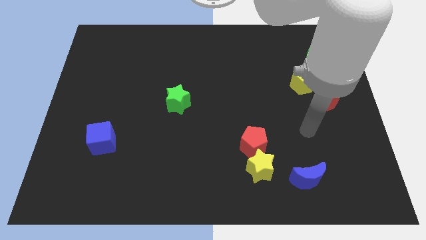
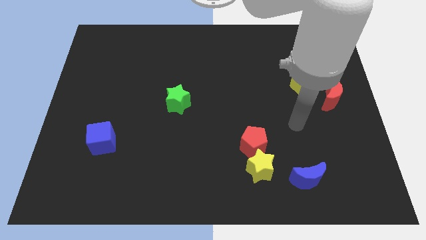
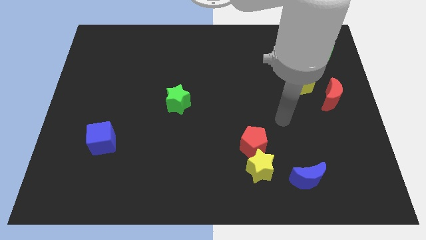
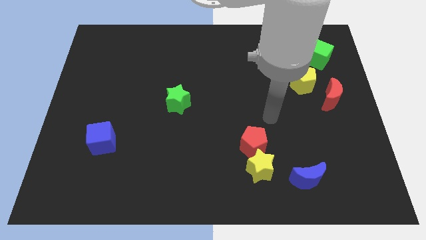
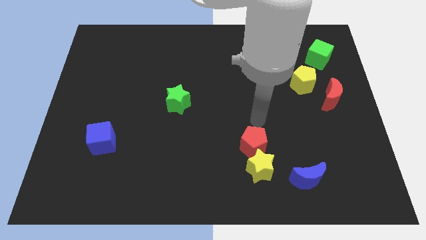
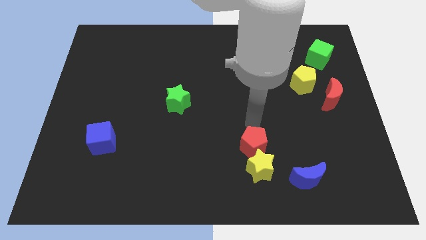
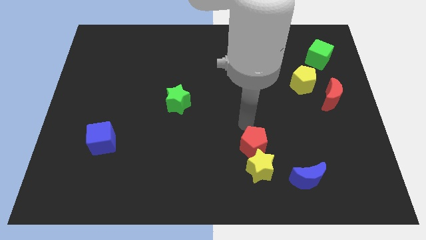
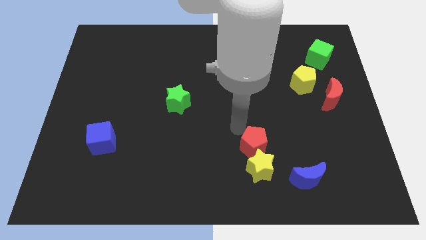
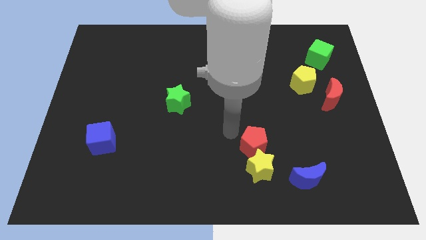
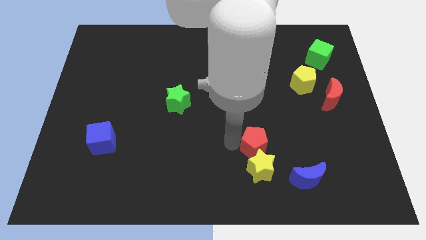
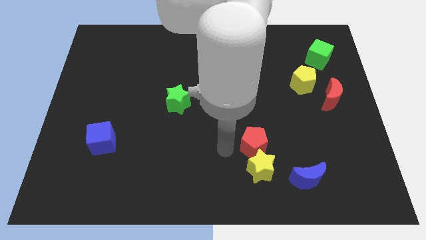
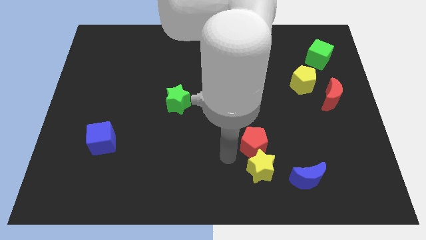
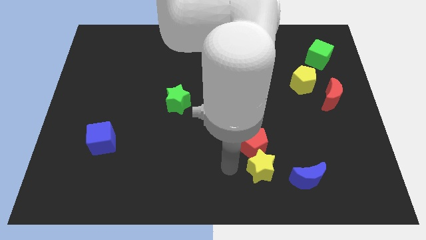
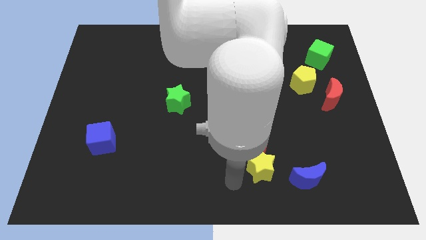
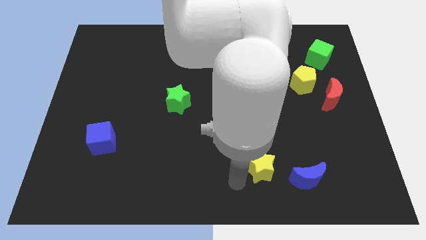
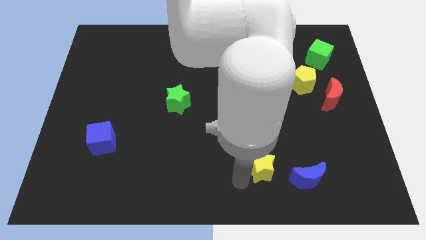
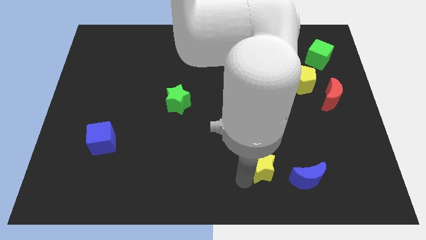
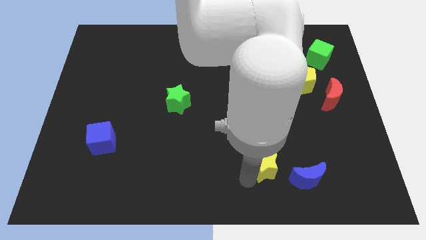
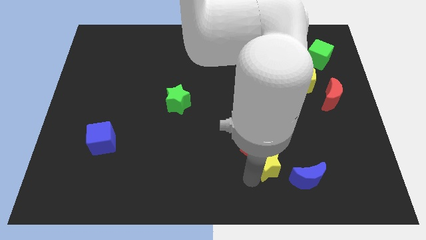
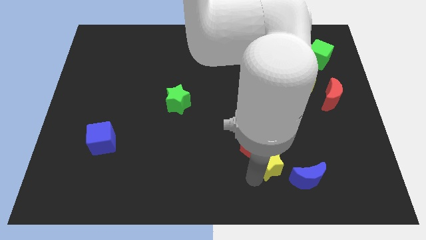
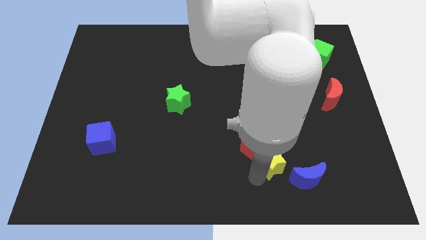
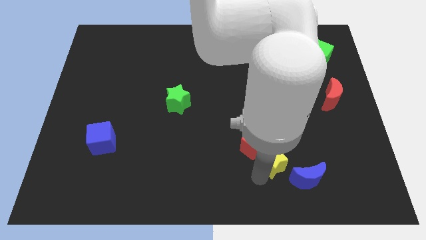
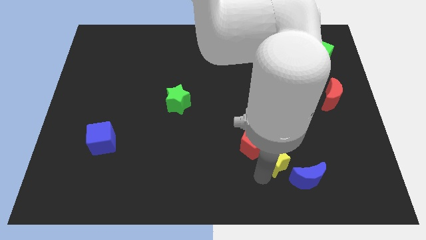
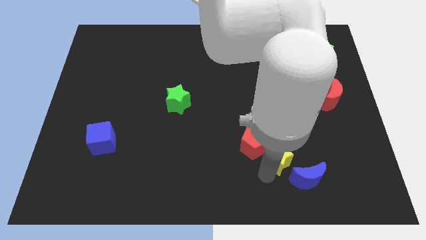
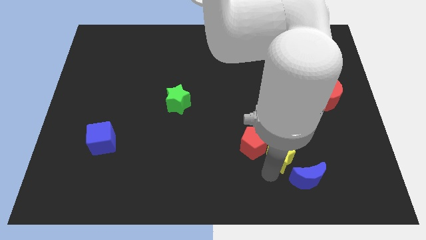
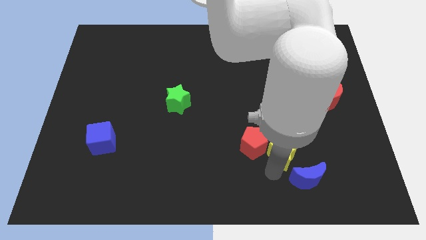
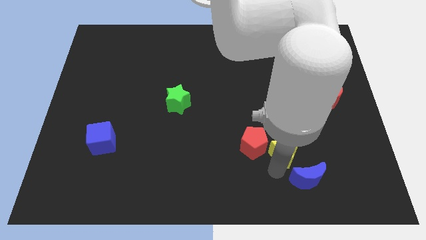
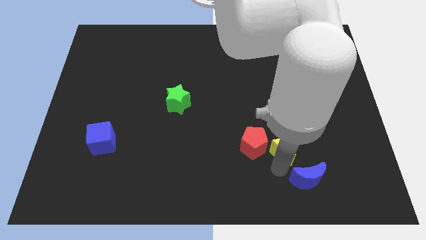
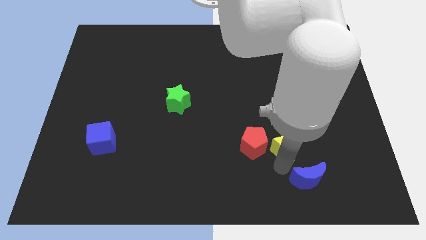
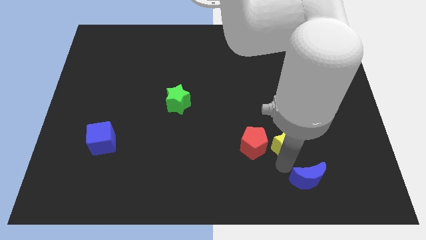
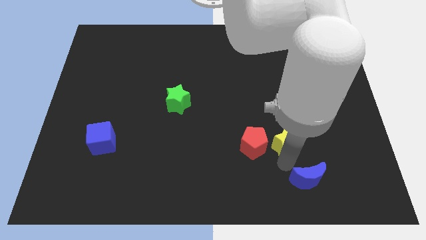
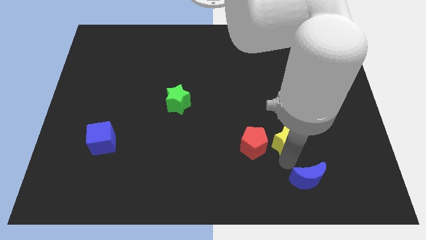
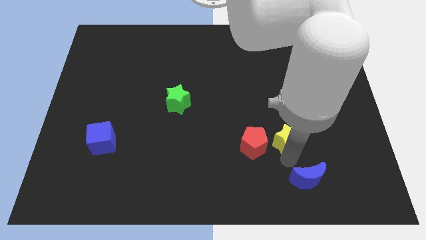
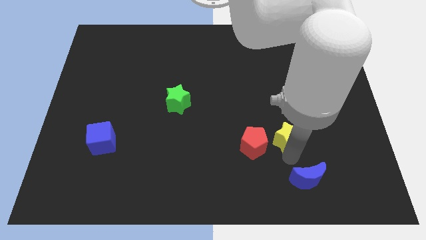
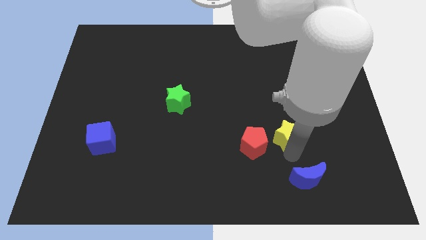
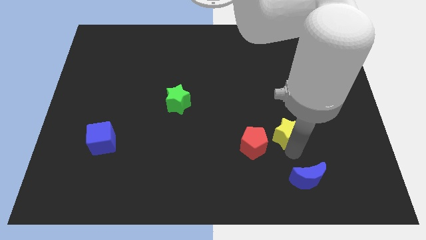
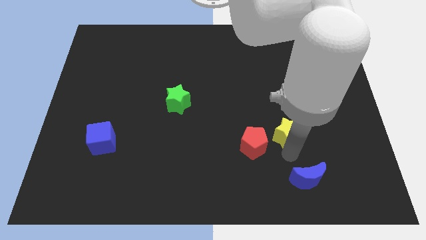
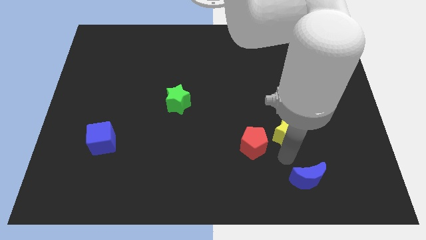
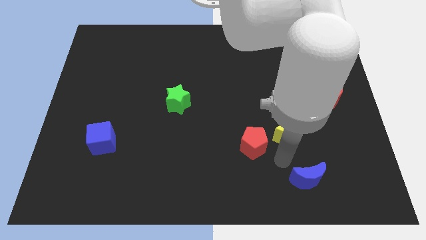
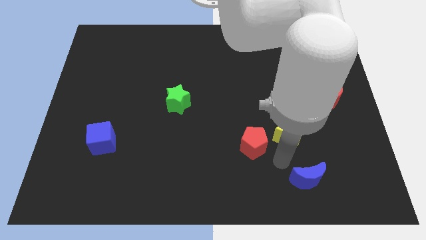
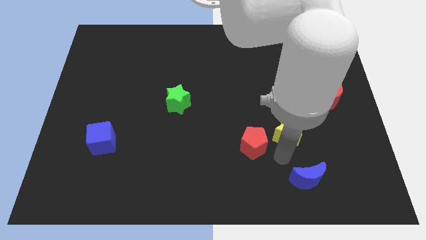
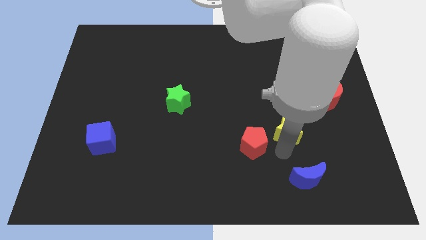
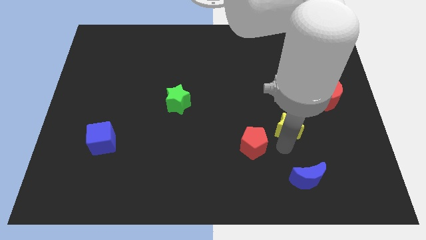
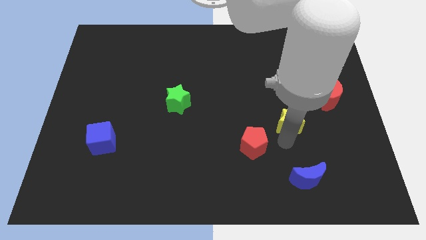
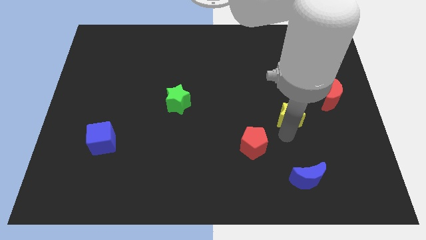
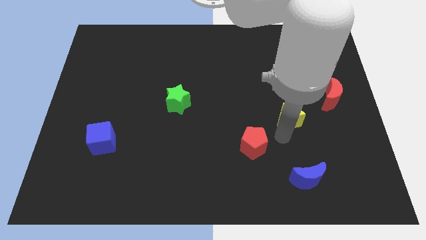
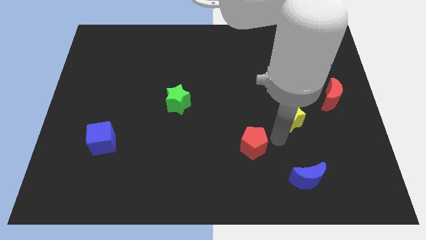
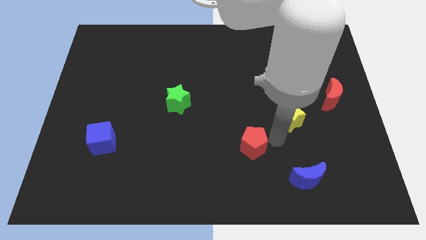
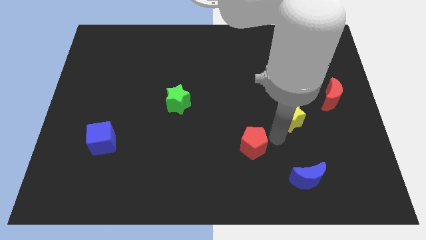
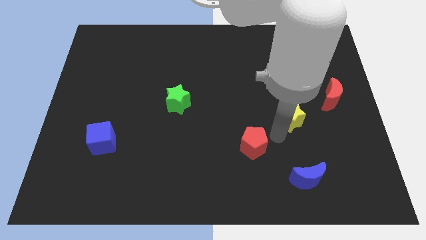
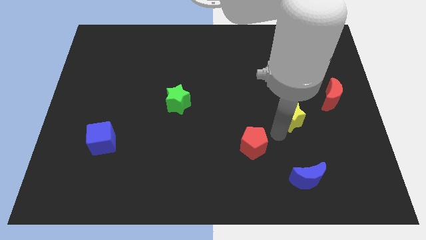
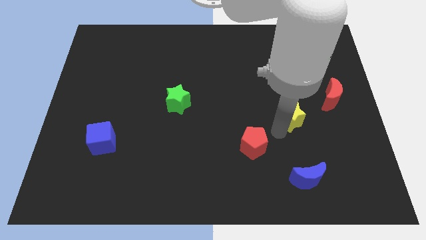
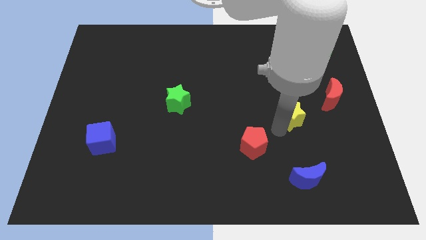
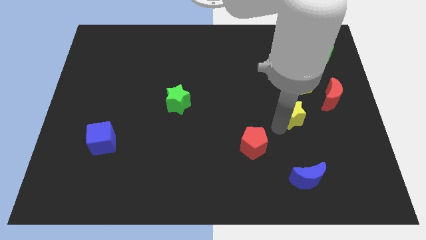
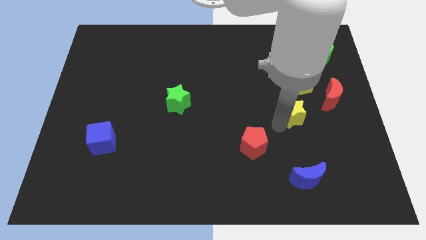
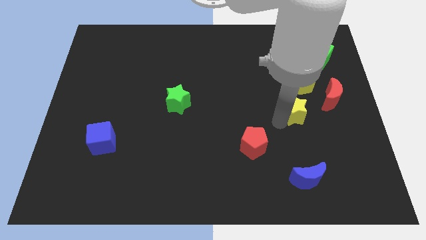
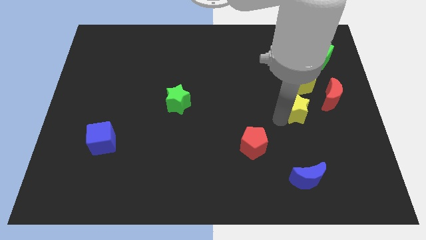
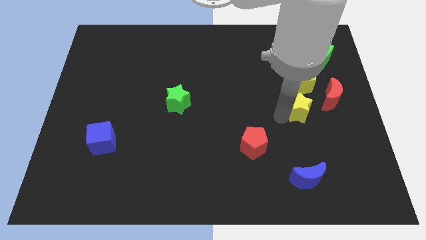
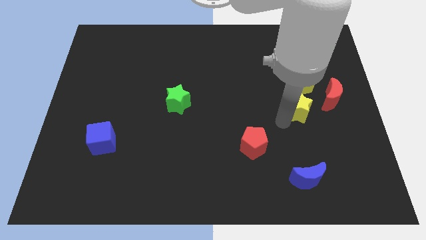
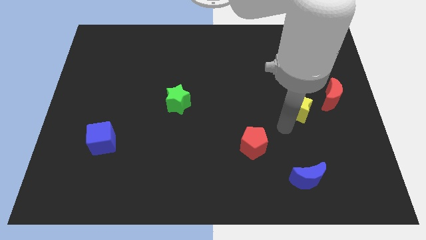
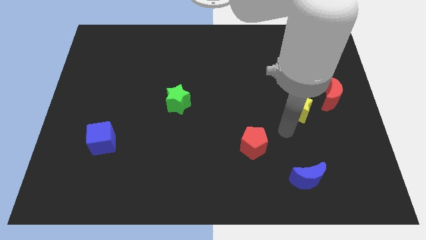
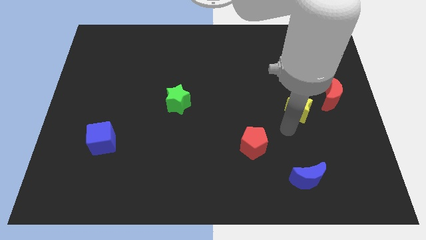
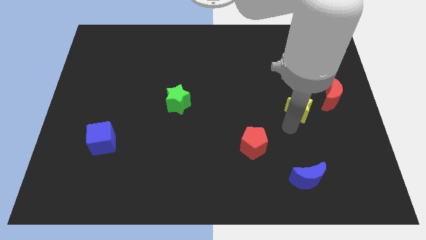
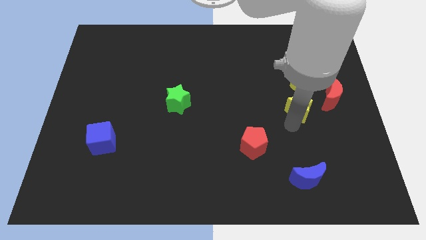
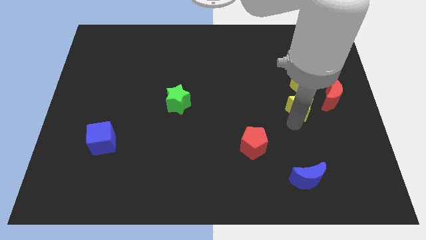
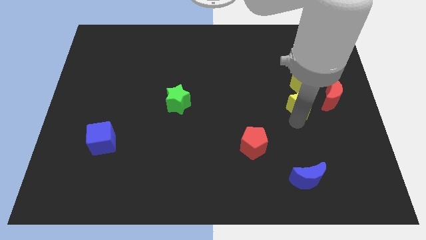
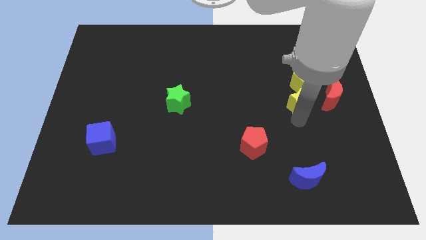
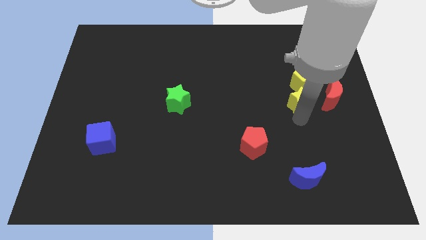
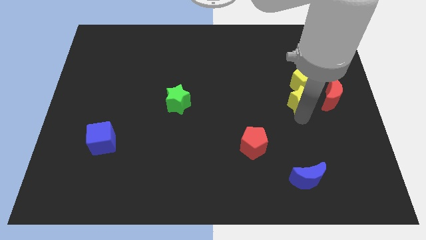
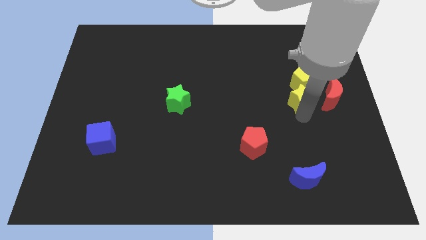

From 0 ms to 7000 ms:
move the yellow star close to the yellow pentagon

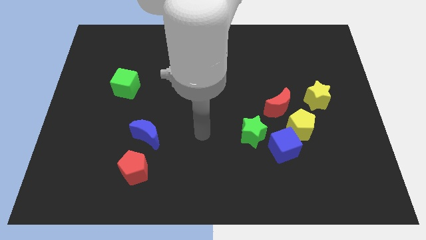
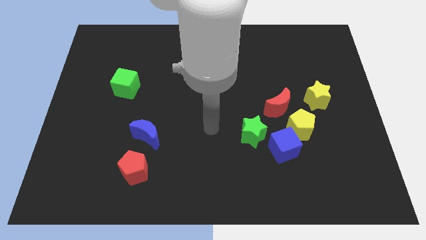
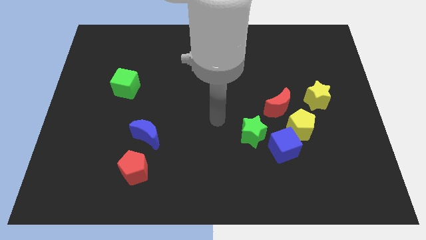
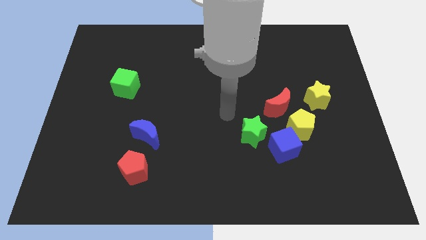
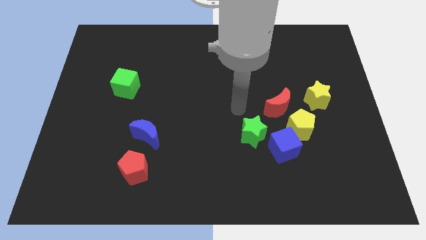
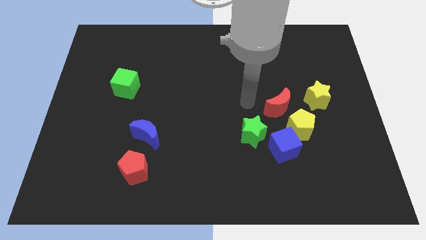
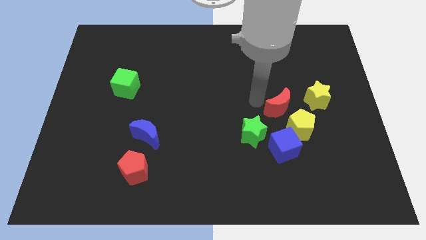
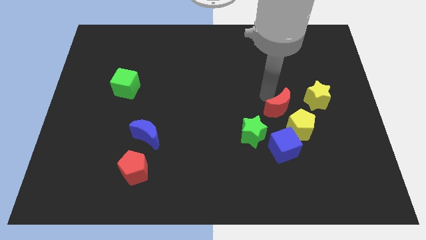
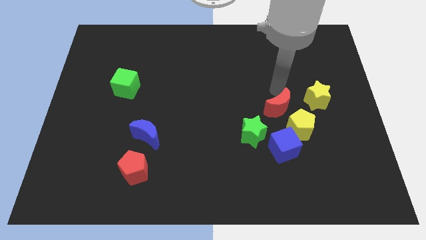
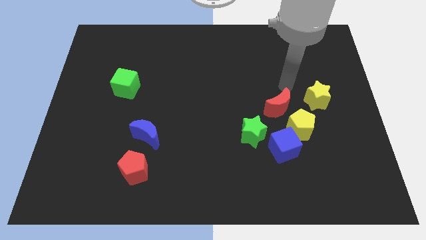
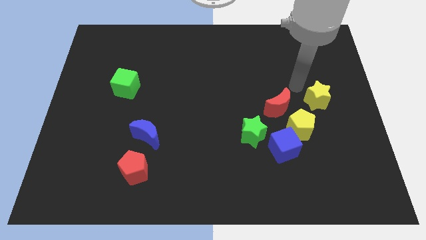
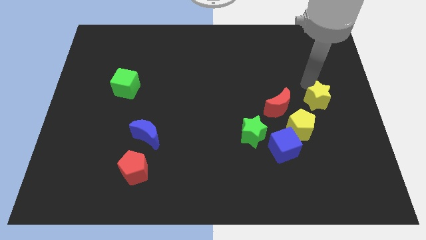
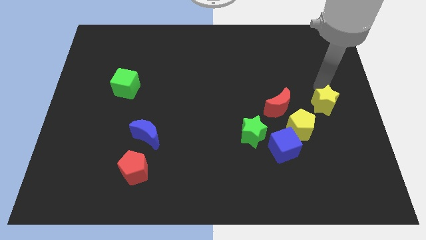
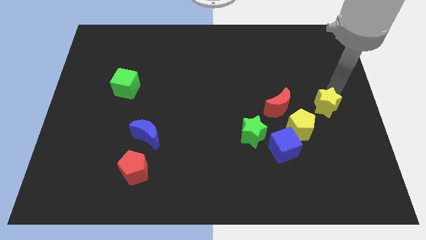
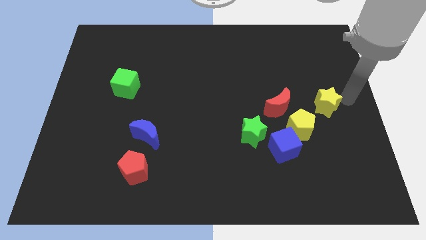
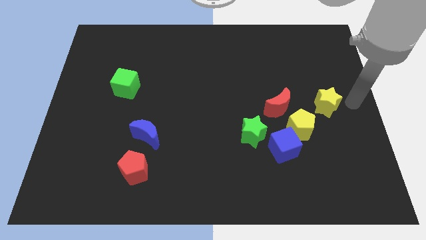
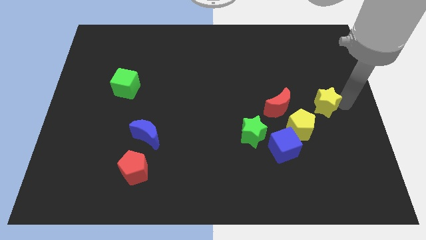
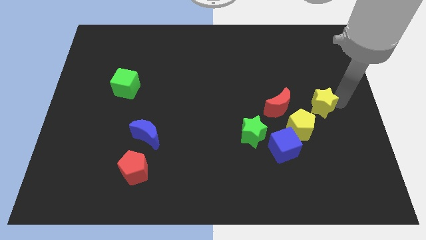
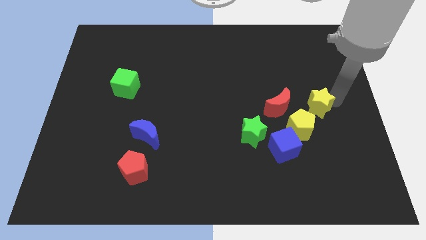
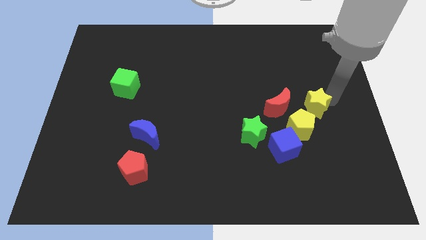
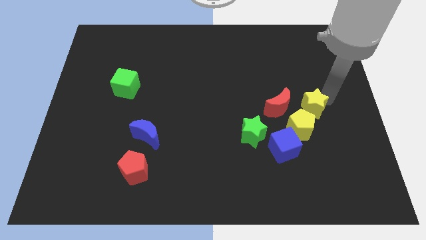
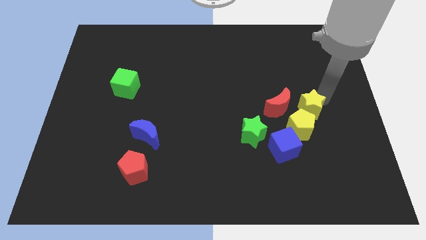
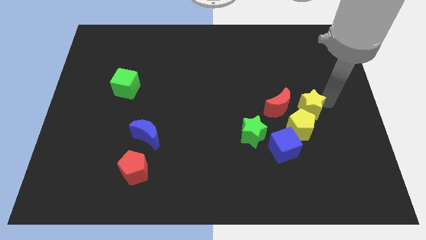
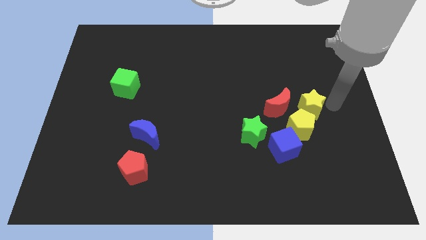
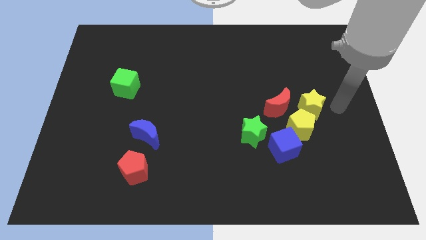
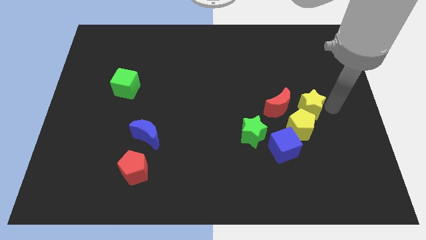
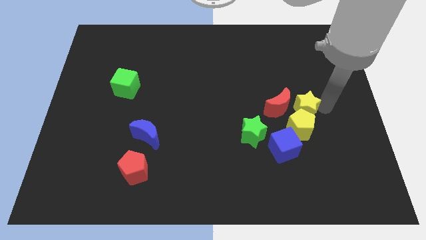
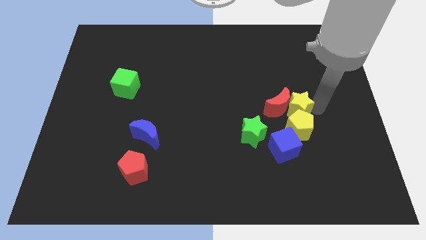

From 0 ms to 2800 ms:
move the yellow star to the red moon
